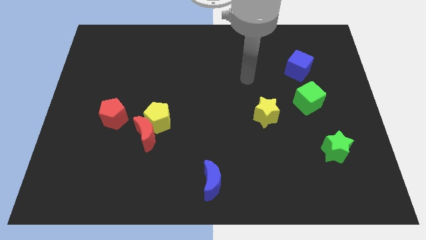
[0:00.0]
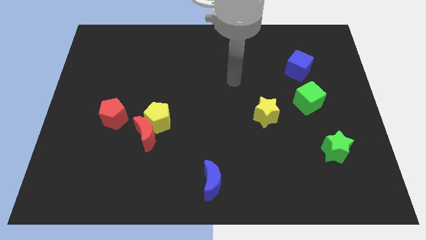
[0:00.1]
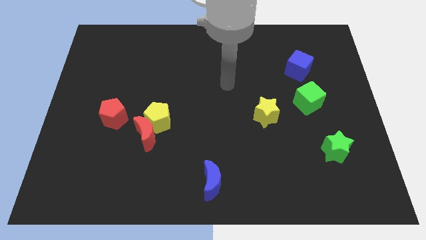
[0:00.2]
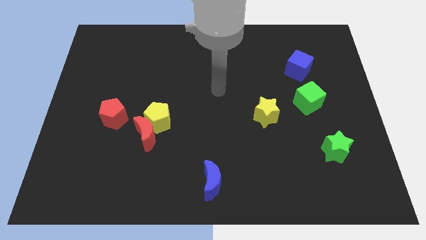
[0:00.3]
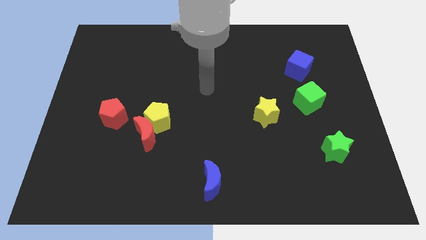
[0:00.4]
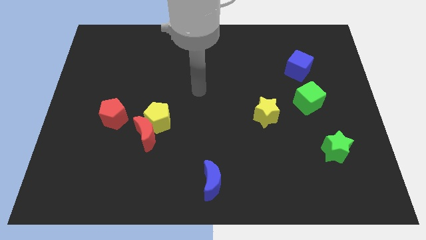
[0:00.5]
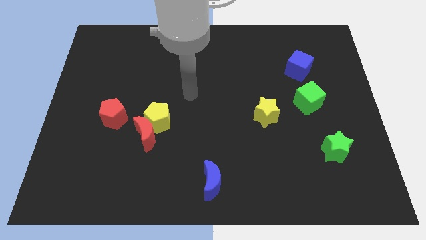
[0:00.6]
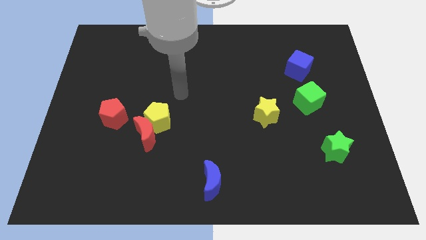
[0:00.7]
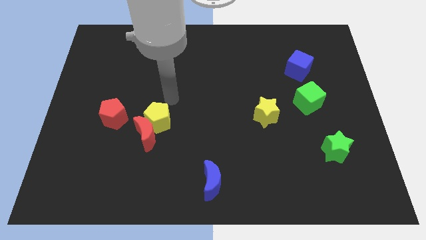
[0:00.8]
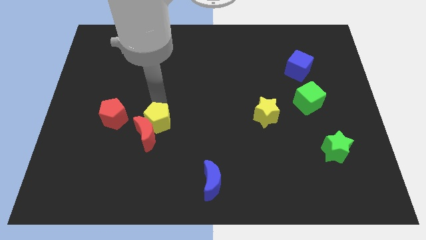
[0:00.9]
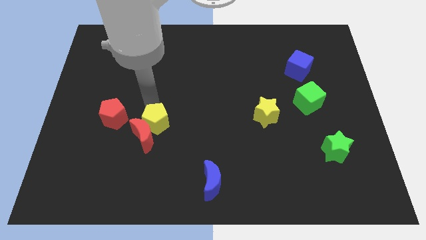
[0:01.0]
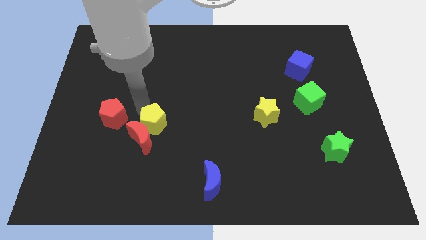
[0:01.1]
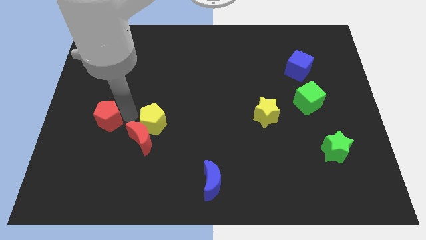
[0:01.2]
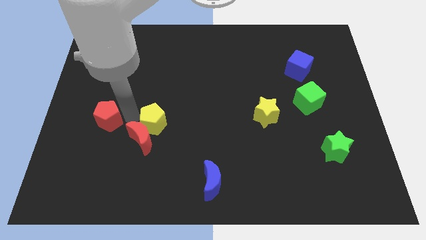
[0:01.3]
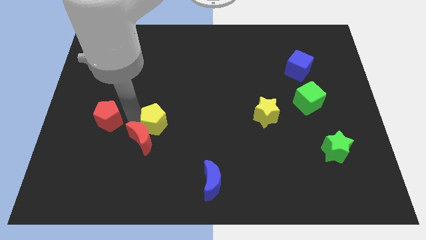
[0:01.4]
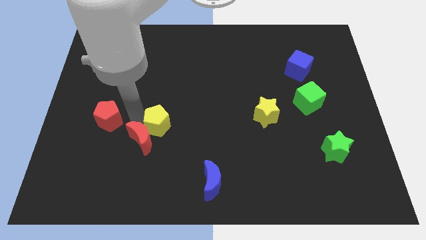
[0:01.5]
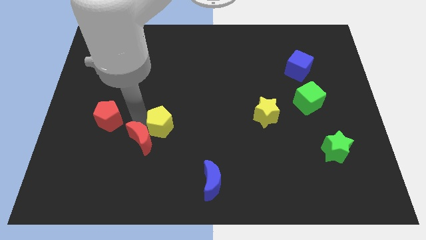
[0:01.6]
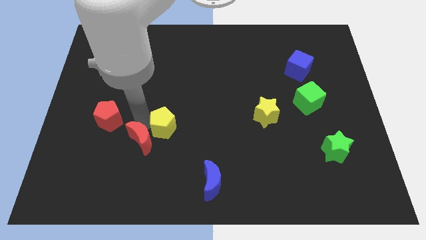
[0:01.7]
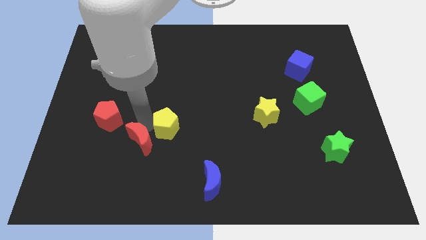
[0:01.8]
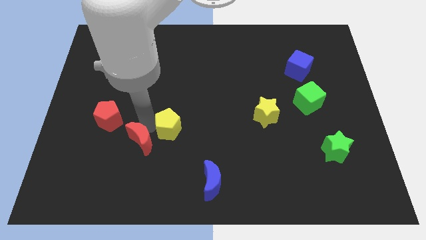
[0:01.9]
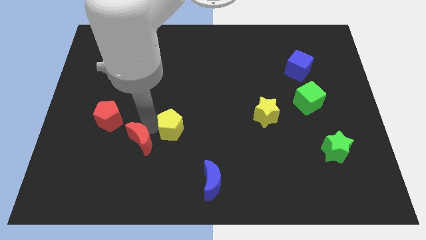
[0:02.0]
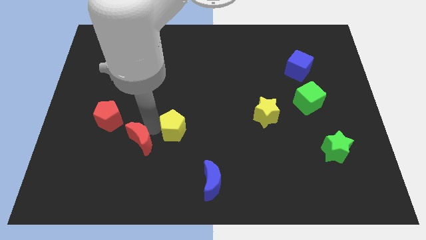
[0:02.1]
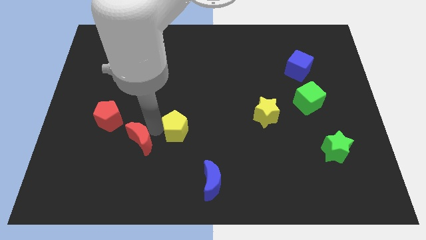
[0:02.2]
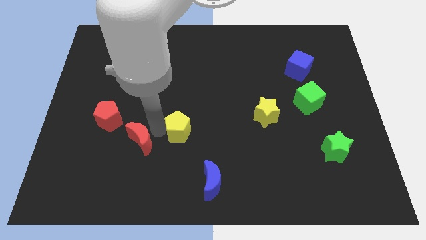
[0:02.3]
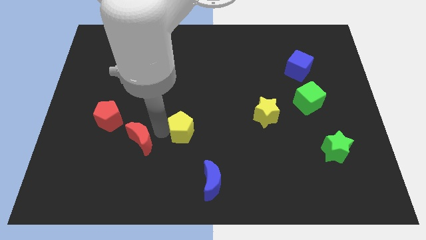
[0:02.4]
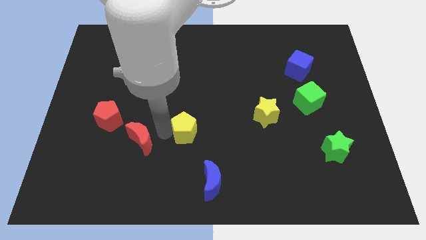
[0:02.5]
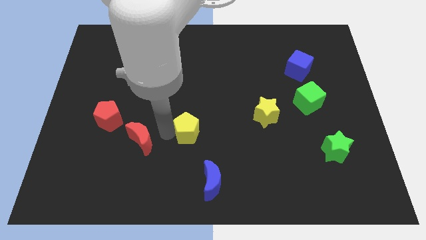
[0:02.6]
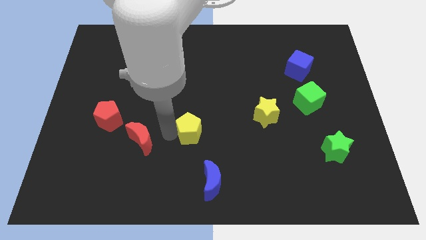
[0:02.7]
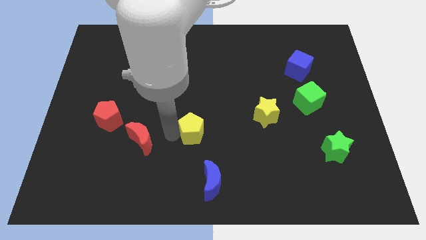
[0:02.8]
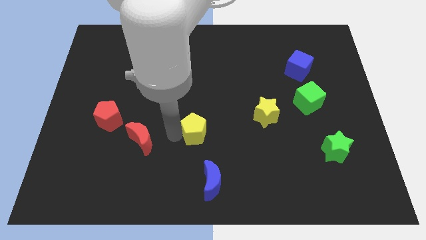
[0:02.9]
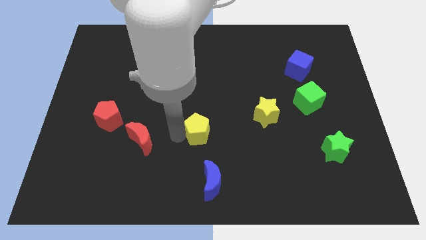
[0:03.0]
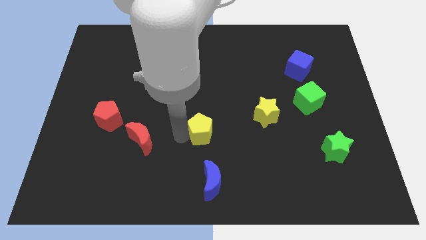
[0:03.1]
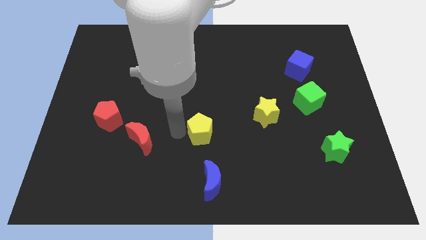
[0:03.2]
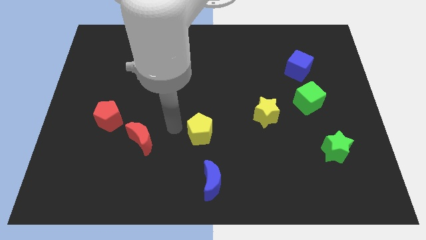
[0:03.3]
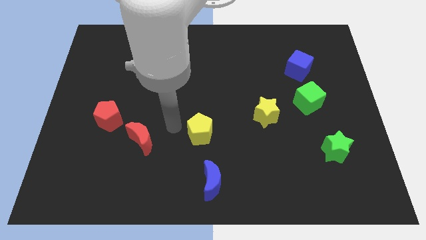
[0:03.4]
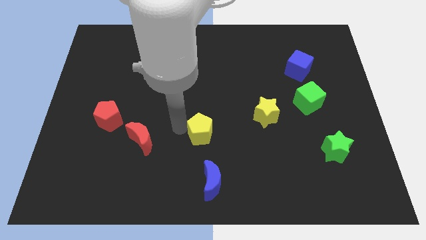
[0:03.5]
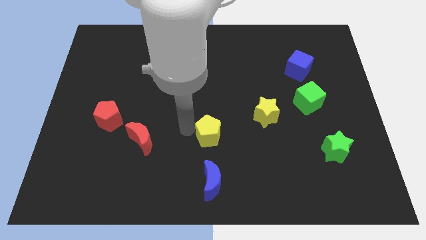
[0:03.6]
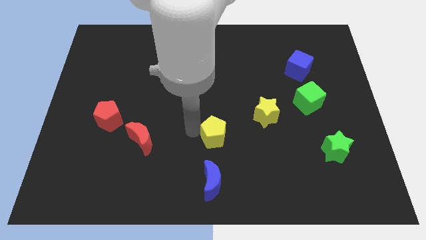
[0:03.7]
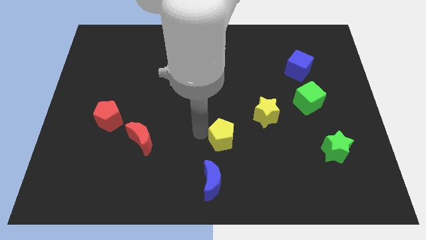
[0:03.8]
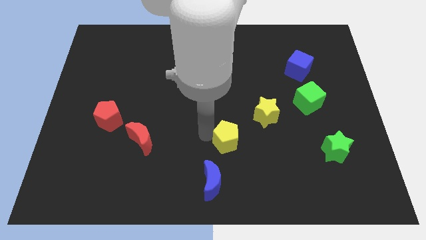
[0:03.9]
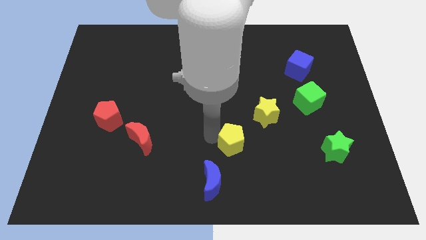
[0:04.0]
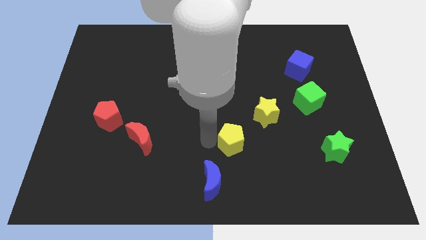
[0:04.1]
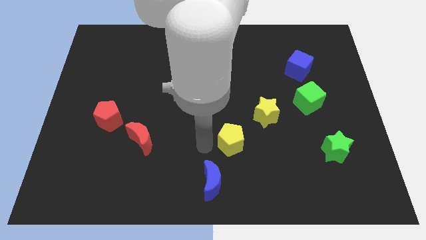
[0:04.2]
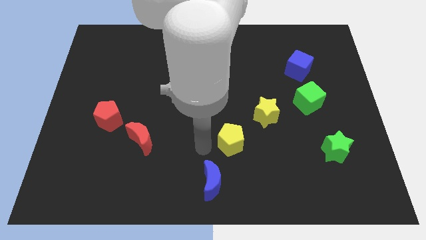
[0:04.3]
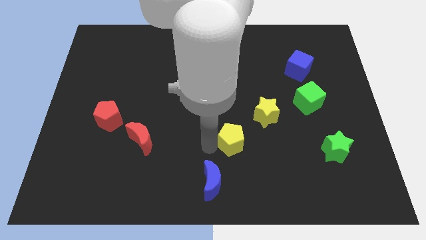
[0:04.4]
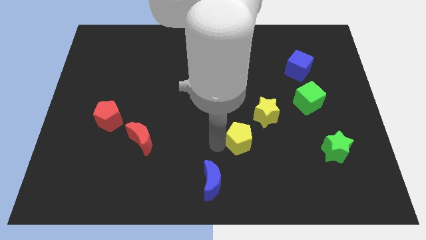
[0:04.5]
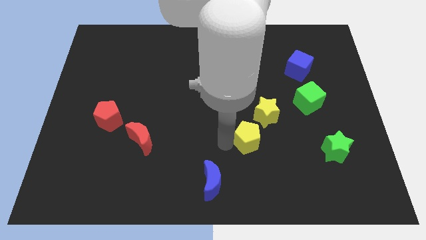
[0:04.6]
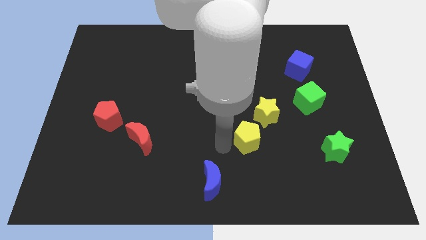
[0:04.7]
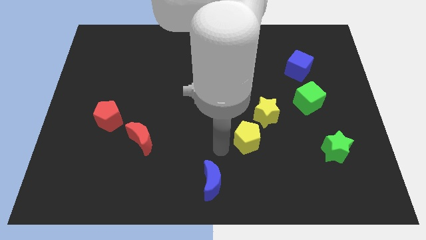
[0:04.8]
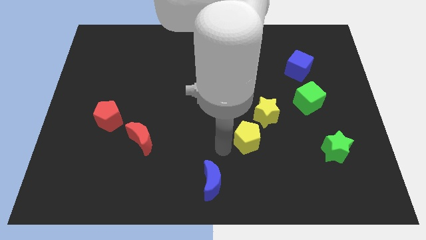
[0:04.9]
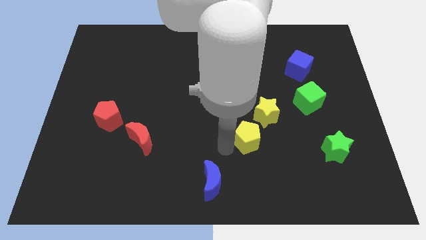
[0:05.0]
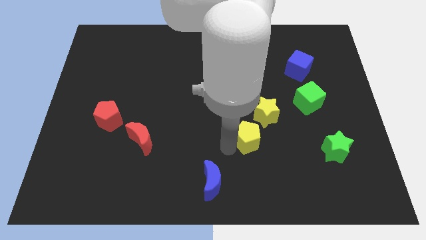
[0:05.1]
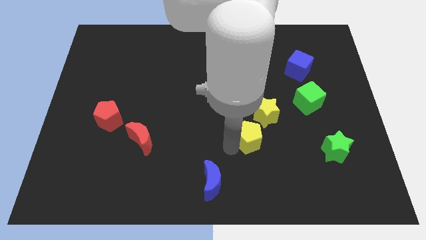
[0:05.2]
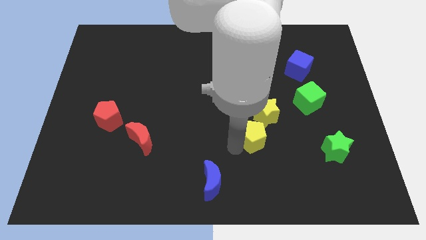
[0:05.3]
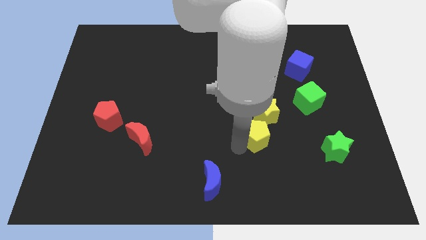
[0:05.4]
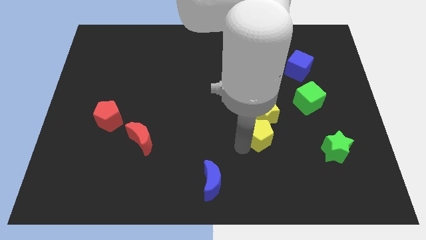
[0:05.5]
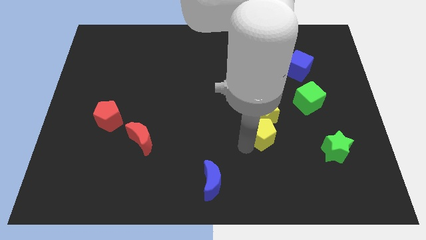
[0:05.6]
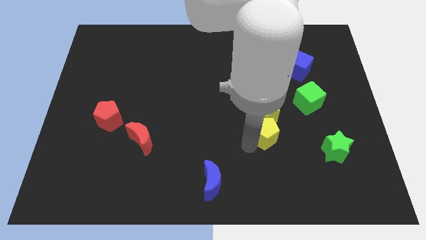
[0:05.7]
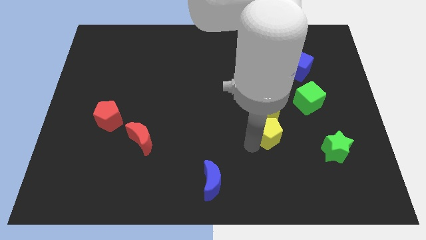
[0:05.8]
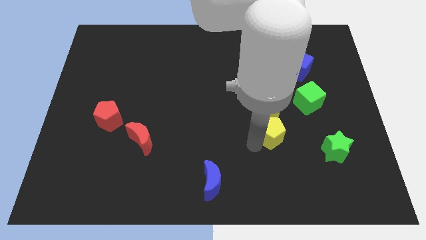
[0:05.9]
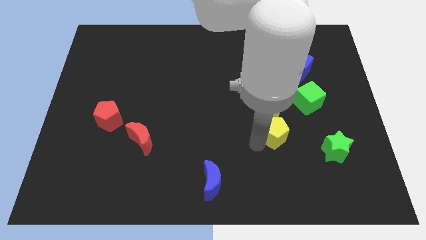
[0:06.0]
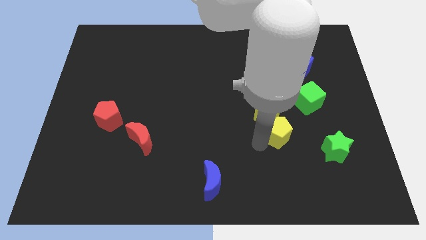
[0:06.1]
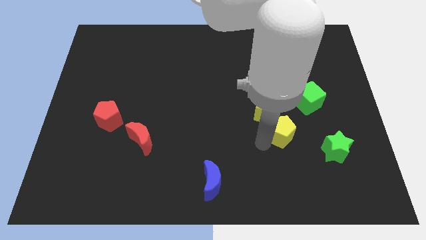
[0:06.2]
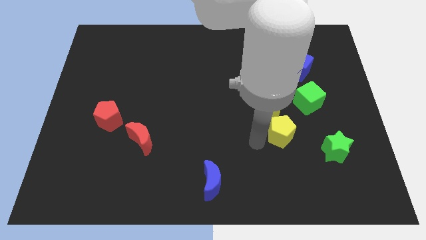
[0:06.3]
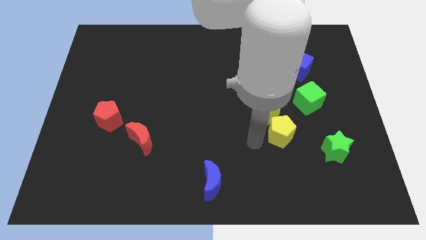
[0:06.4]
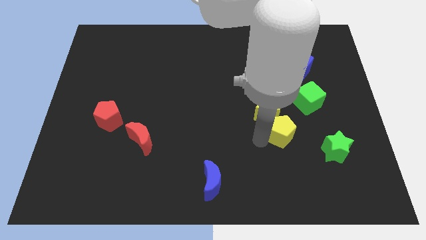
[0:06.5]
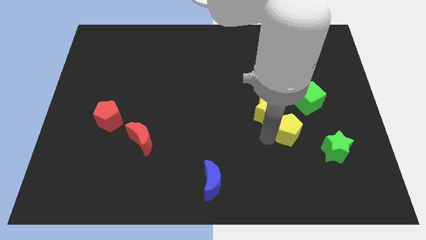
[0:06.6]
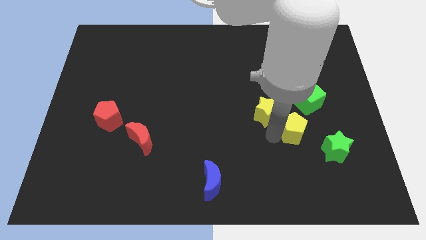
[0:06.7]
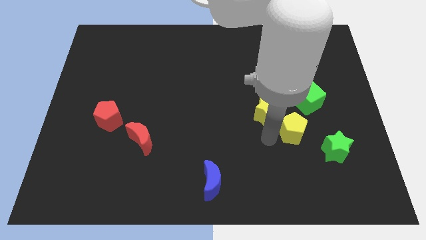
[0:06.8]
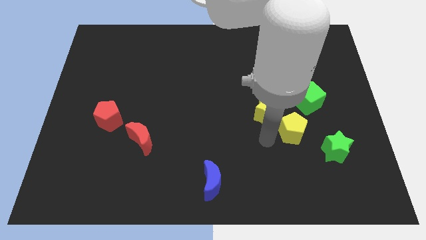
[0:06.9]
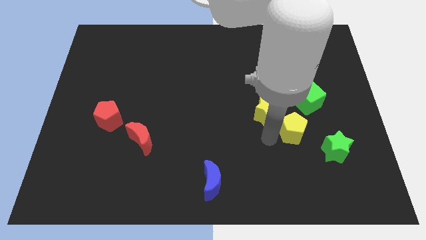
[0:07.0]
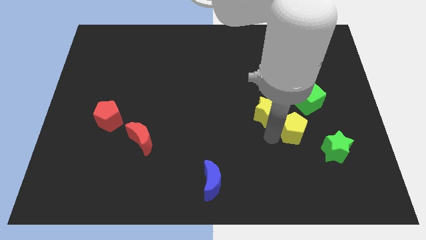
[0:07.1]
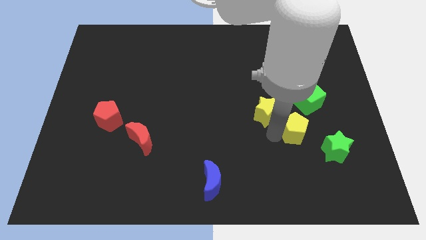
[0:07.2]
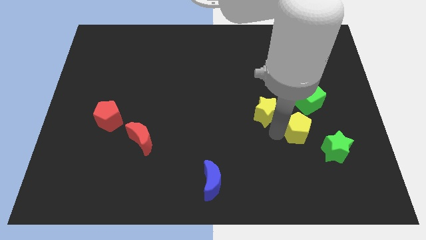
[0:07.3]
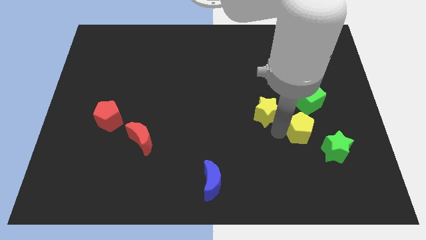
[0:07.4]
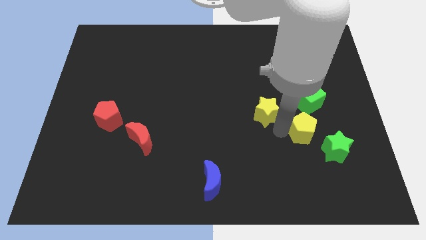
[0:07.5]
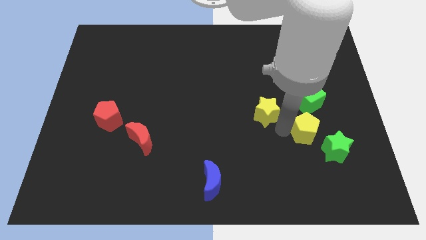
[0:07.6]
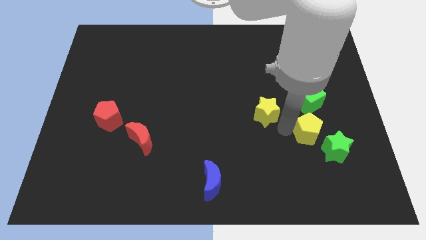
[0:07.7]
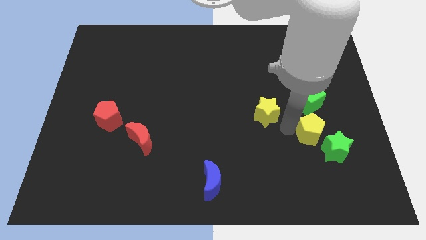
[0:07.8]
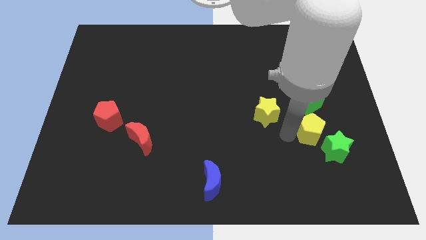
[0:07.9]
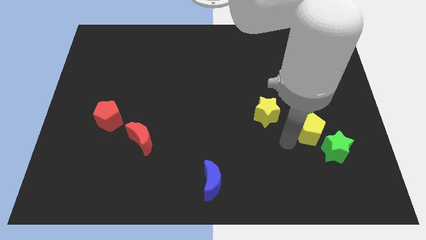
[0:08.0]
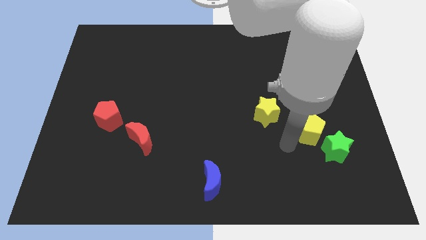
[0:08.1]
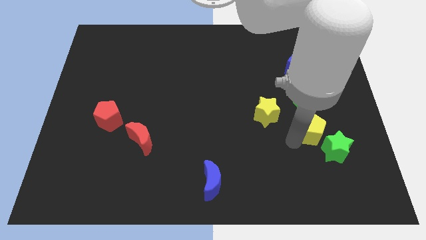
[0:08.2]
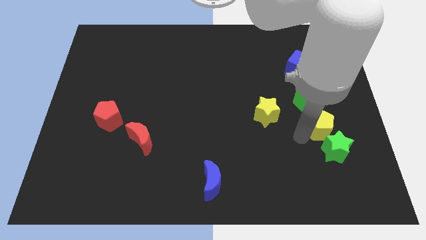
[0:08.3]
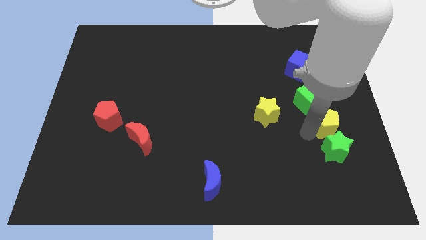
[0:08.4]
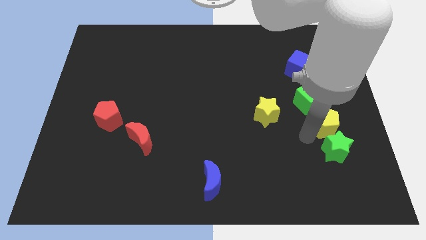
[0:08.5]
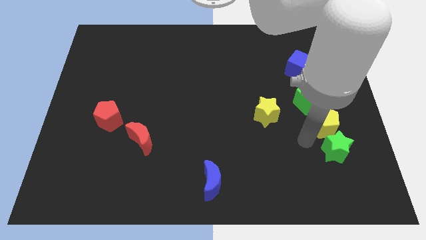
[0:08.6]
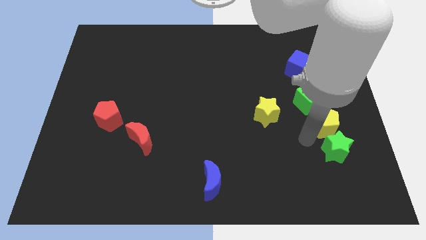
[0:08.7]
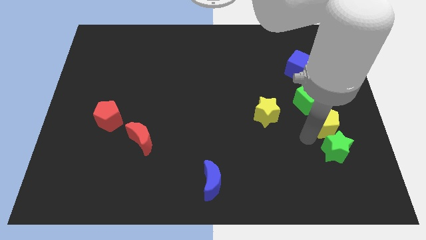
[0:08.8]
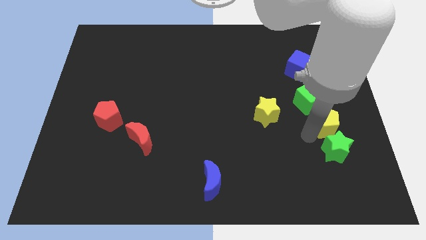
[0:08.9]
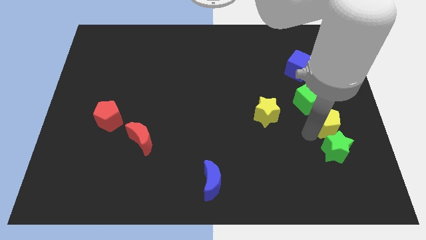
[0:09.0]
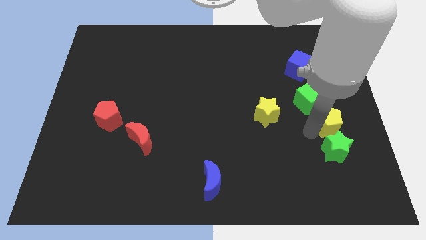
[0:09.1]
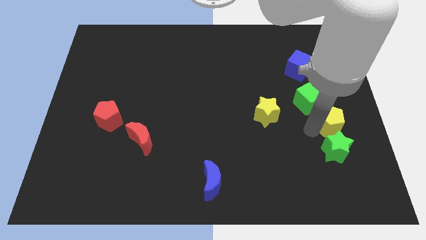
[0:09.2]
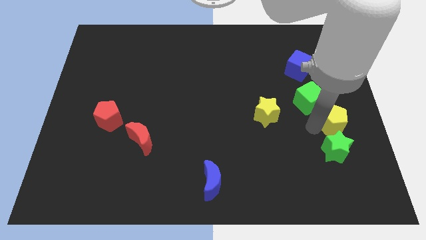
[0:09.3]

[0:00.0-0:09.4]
slide the yellow pentagon to the right side
